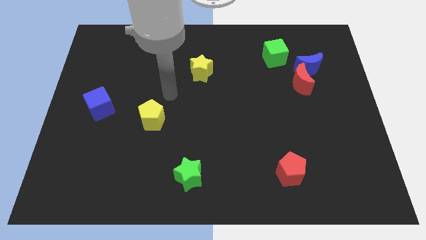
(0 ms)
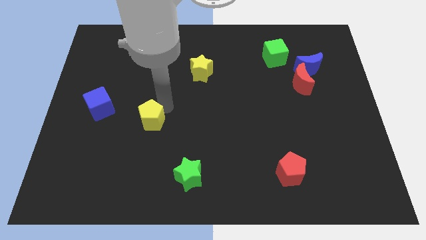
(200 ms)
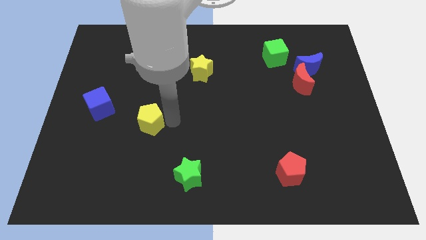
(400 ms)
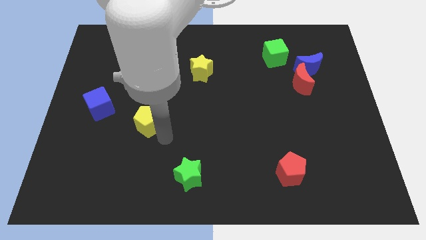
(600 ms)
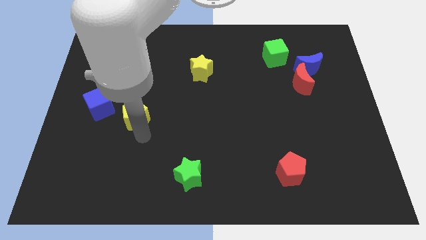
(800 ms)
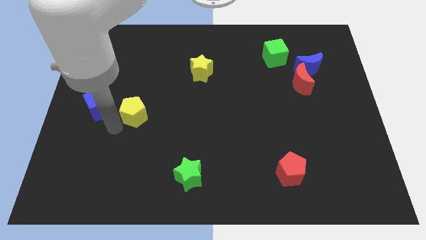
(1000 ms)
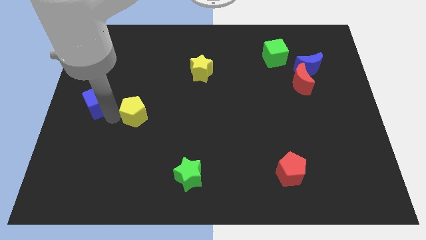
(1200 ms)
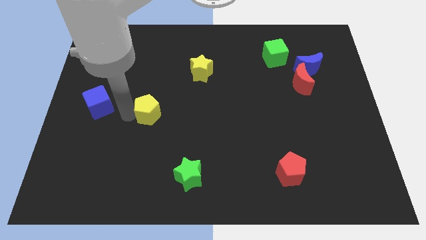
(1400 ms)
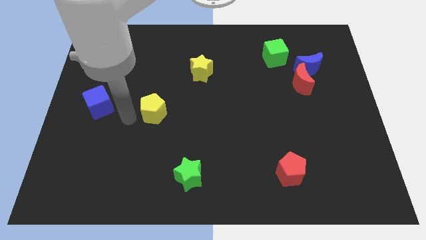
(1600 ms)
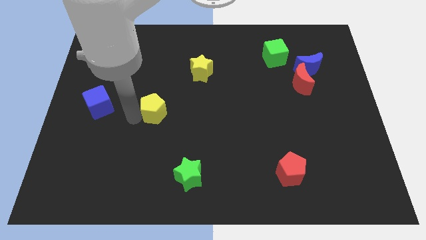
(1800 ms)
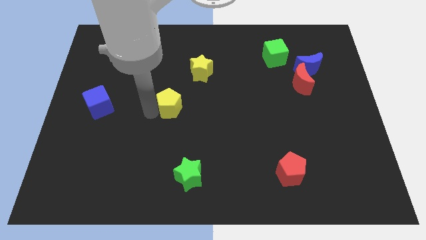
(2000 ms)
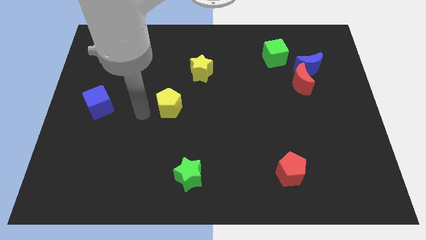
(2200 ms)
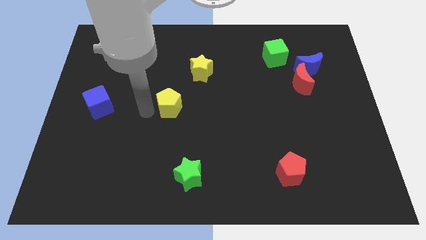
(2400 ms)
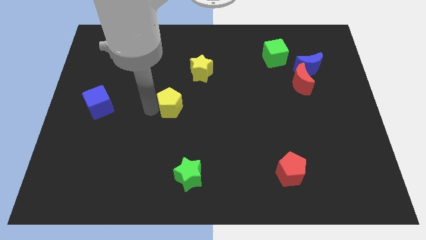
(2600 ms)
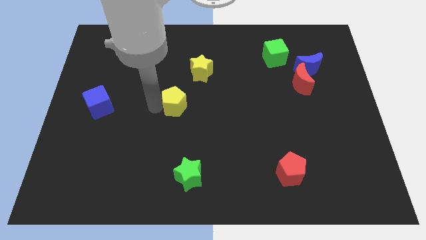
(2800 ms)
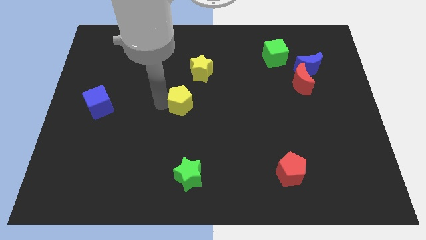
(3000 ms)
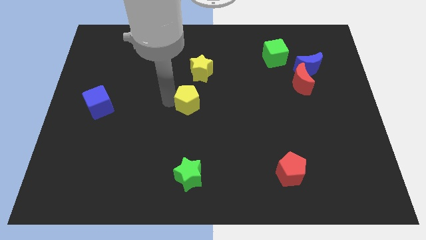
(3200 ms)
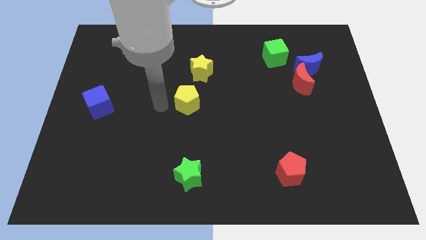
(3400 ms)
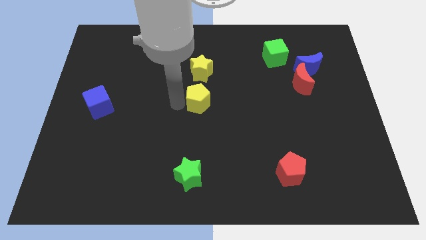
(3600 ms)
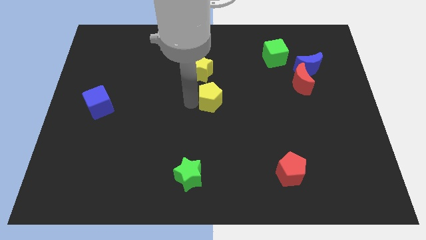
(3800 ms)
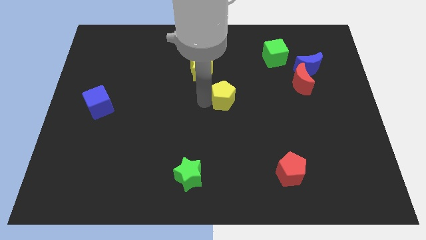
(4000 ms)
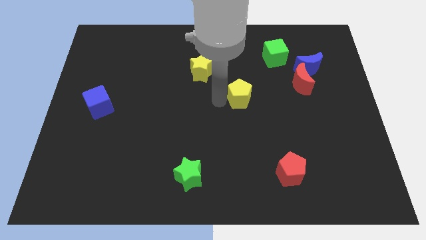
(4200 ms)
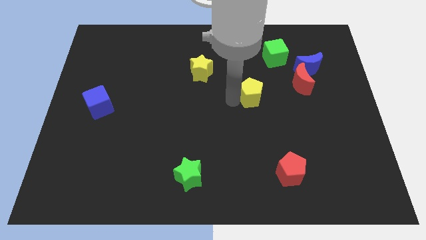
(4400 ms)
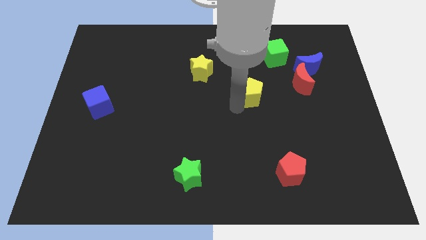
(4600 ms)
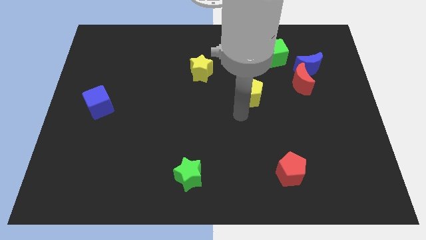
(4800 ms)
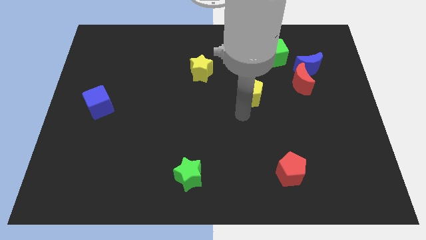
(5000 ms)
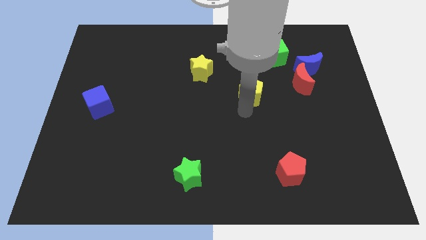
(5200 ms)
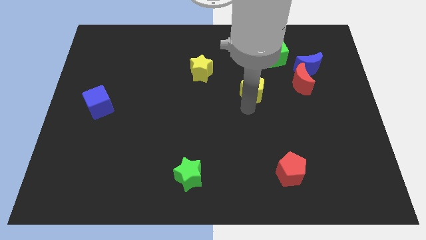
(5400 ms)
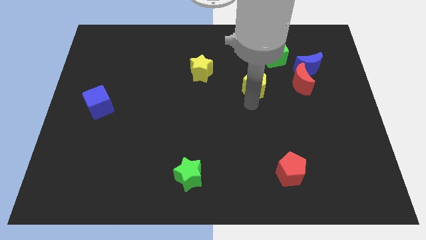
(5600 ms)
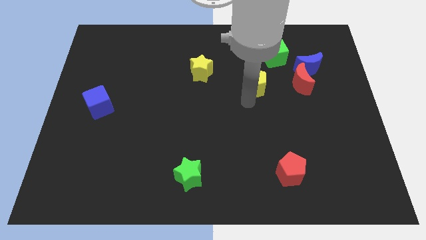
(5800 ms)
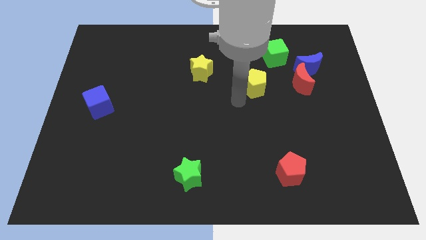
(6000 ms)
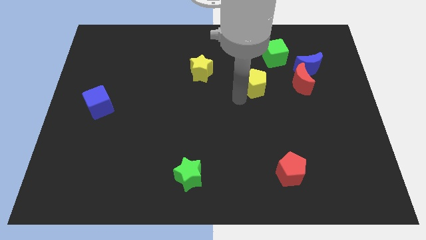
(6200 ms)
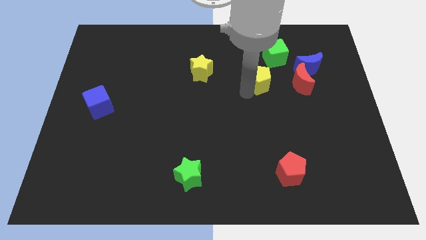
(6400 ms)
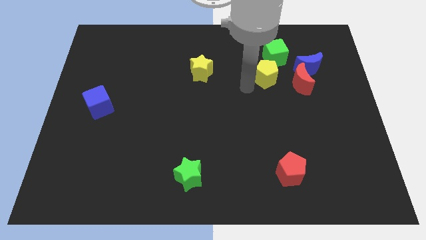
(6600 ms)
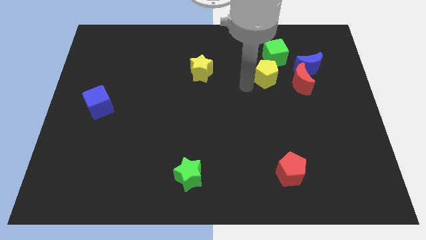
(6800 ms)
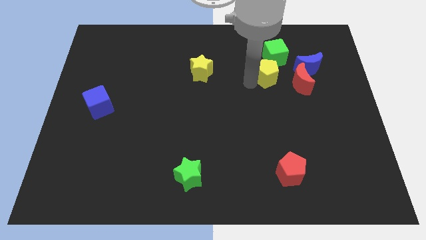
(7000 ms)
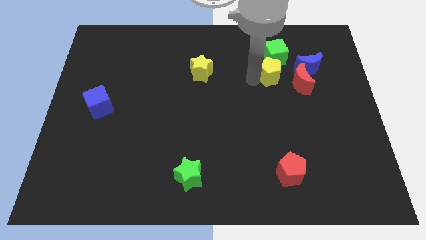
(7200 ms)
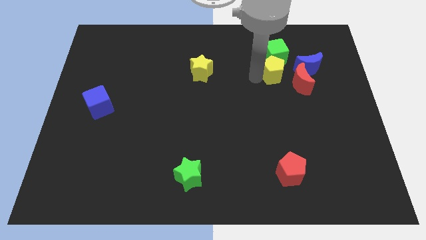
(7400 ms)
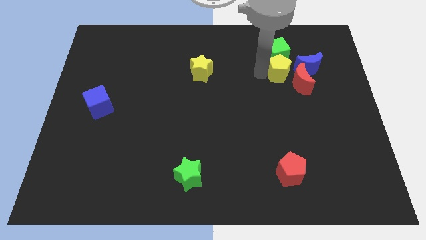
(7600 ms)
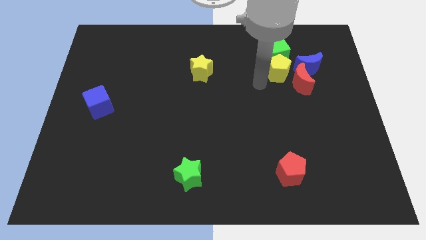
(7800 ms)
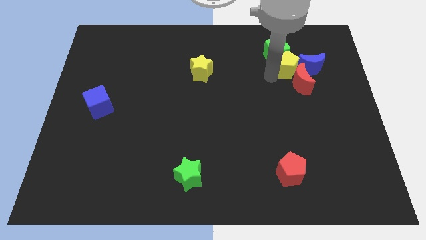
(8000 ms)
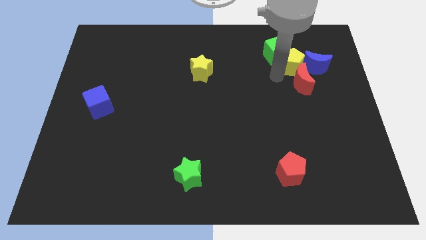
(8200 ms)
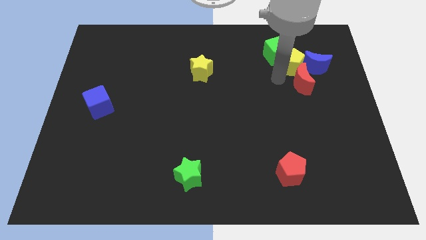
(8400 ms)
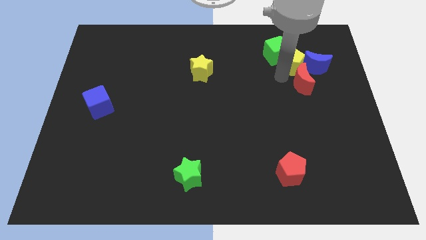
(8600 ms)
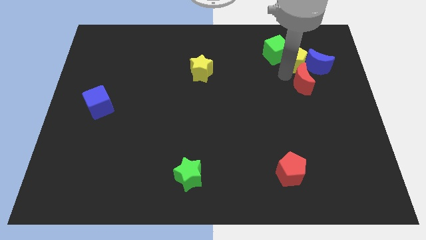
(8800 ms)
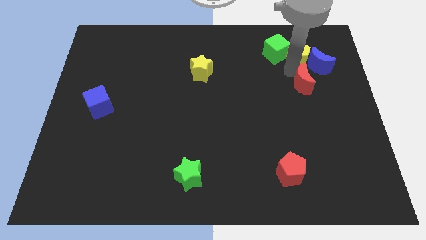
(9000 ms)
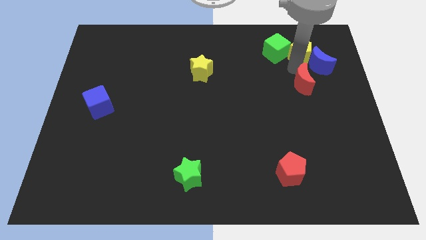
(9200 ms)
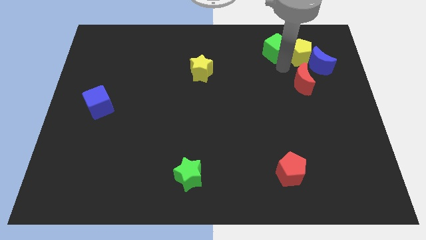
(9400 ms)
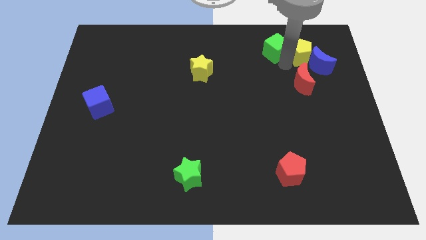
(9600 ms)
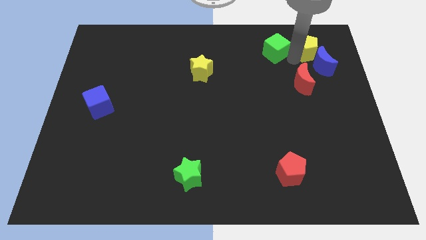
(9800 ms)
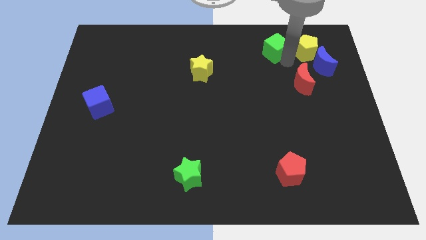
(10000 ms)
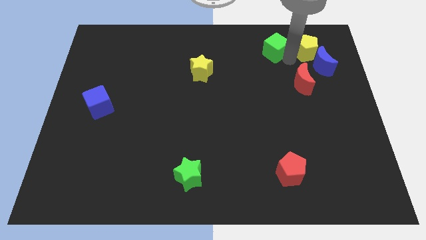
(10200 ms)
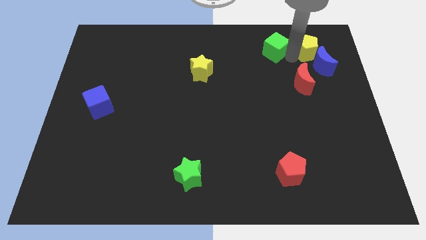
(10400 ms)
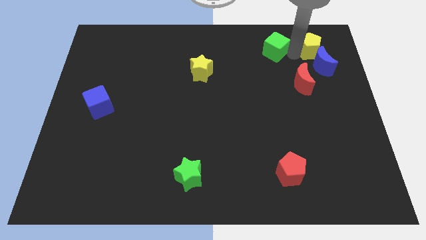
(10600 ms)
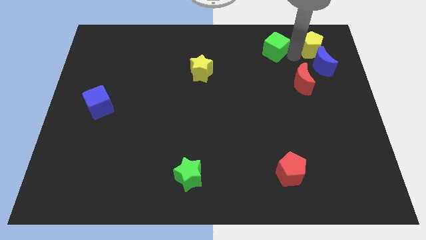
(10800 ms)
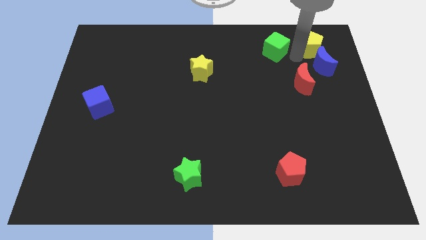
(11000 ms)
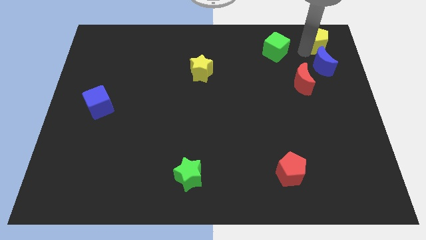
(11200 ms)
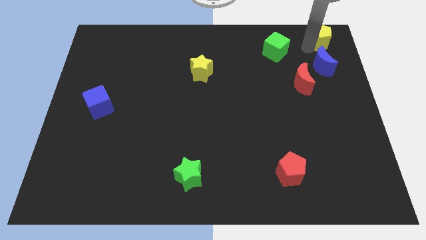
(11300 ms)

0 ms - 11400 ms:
move the yellow pentagon to the upper right corner
